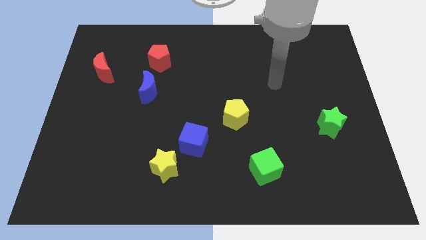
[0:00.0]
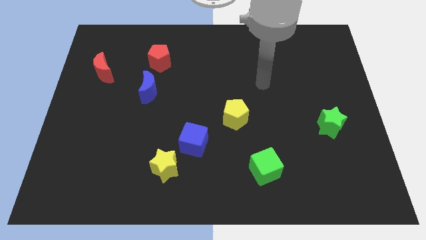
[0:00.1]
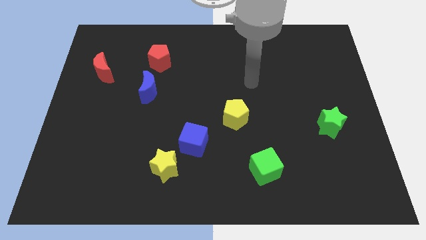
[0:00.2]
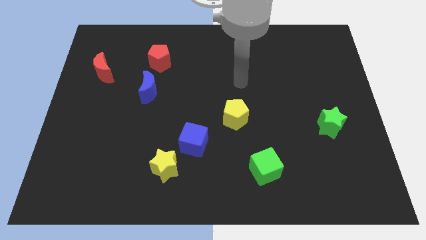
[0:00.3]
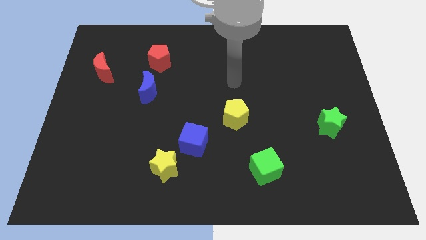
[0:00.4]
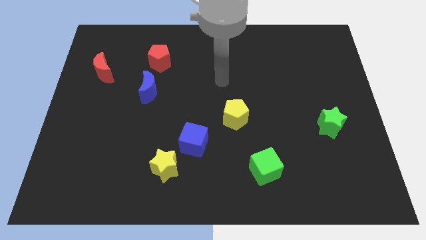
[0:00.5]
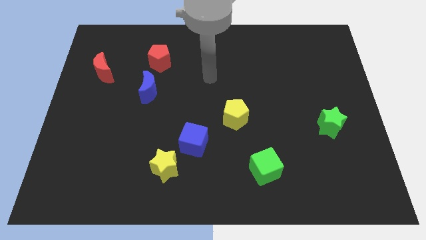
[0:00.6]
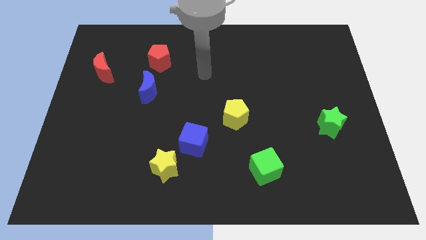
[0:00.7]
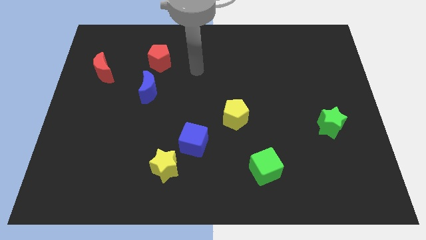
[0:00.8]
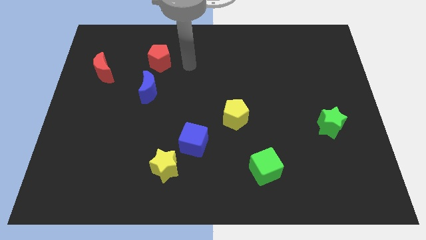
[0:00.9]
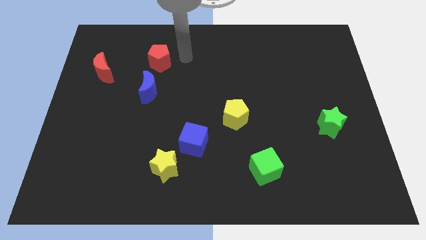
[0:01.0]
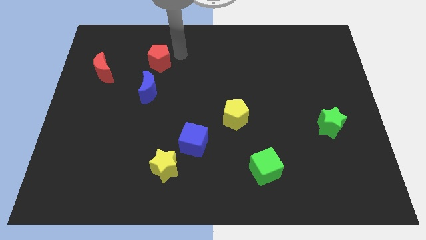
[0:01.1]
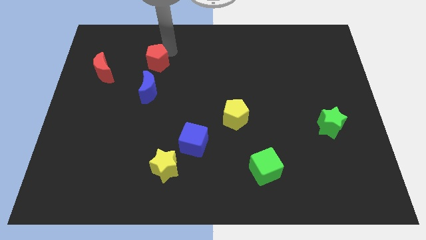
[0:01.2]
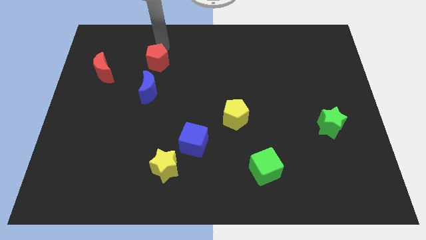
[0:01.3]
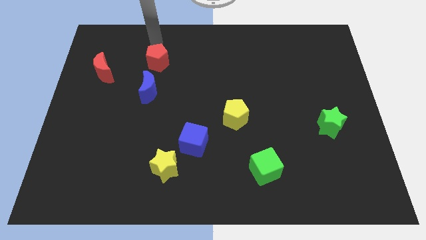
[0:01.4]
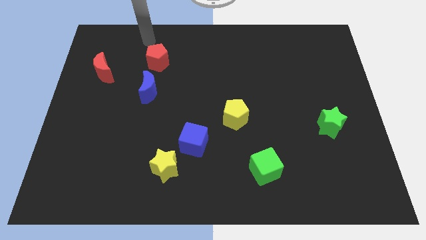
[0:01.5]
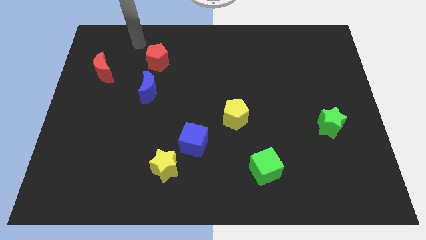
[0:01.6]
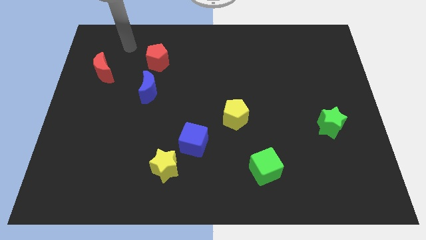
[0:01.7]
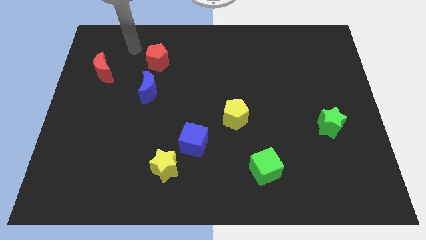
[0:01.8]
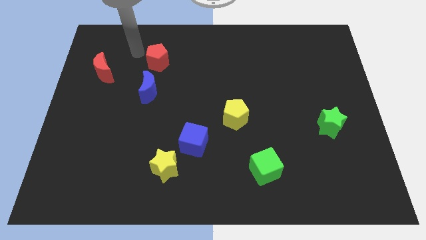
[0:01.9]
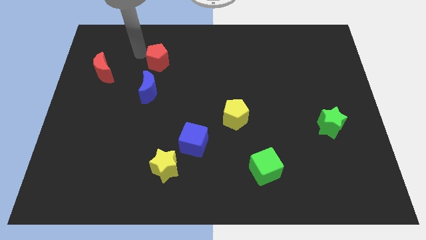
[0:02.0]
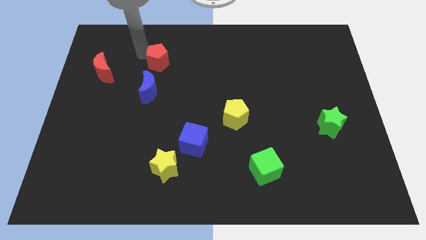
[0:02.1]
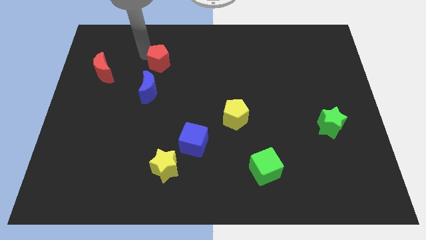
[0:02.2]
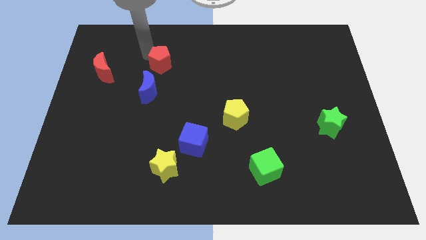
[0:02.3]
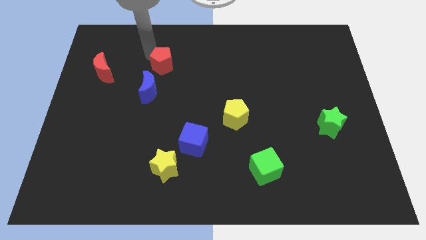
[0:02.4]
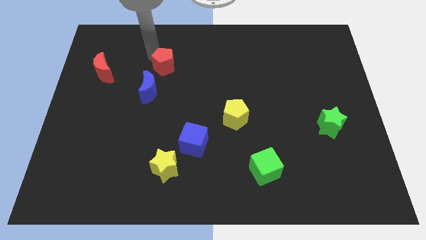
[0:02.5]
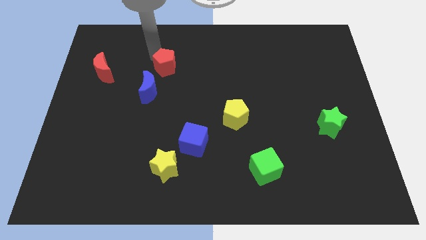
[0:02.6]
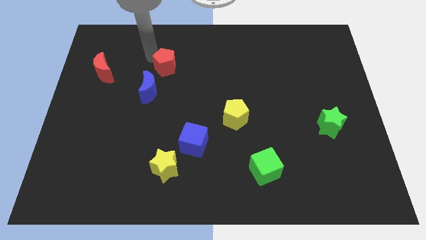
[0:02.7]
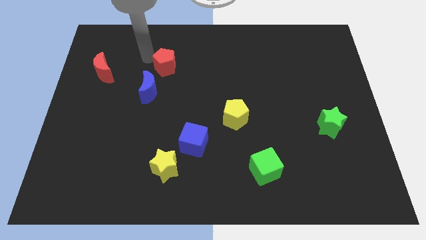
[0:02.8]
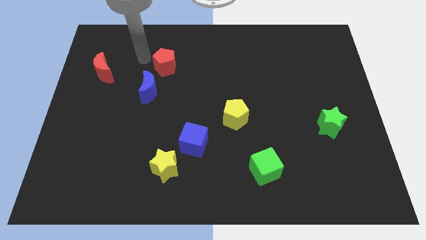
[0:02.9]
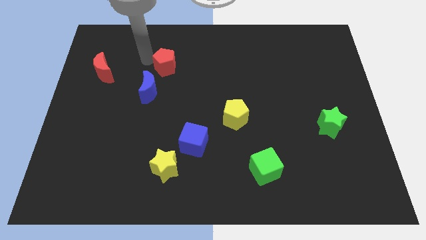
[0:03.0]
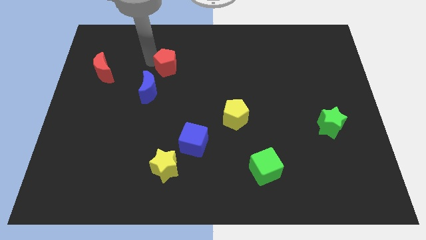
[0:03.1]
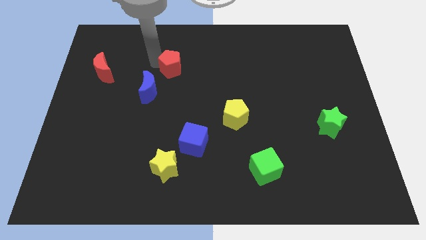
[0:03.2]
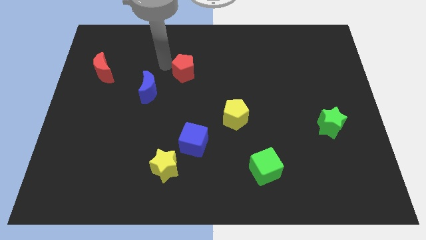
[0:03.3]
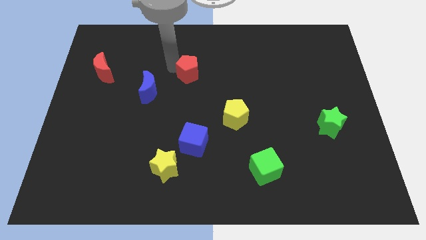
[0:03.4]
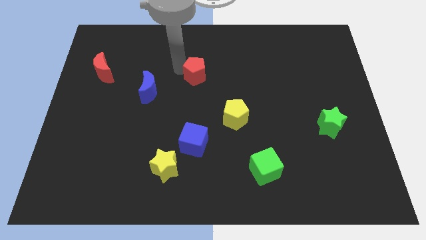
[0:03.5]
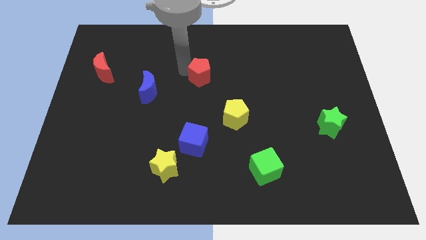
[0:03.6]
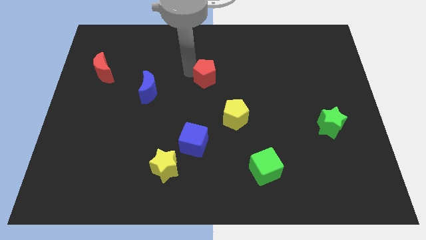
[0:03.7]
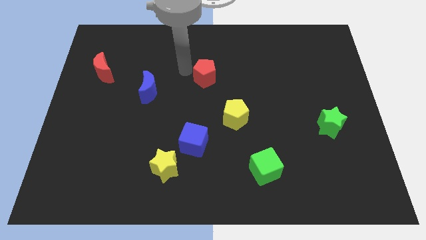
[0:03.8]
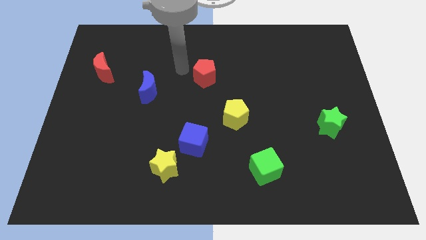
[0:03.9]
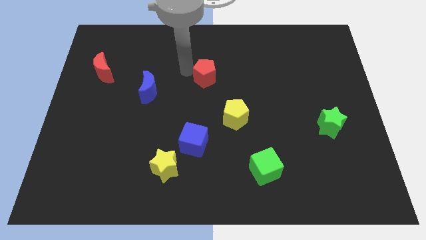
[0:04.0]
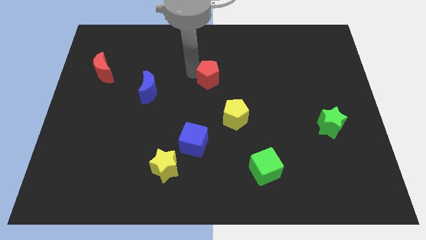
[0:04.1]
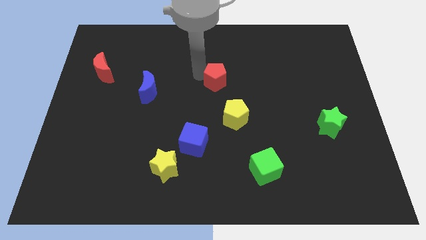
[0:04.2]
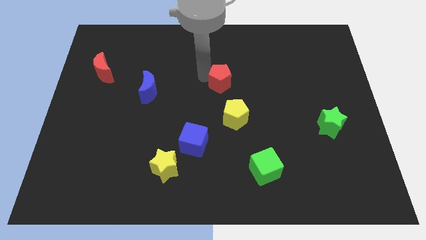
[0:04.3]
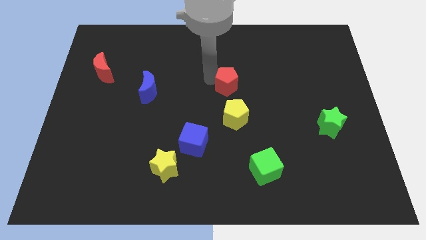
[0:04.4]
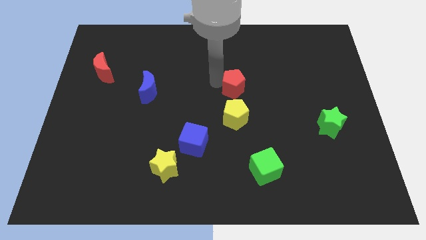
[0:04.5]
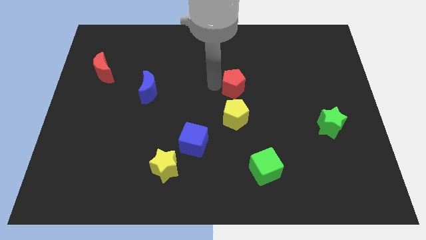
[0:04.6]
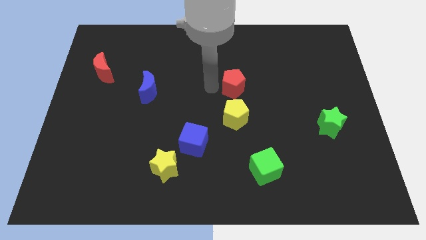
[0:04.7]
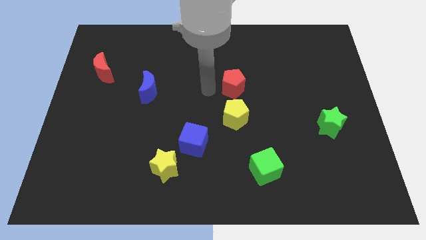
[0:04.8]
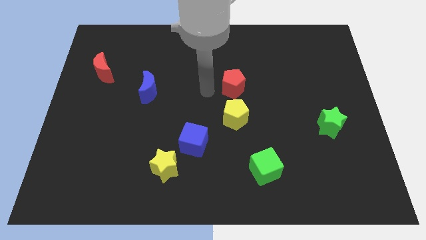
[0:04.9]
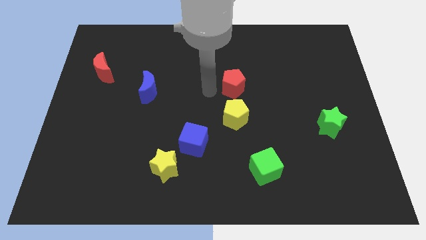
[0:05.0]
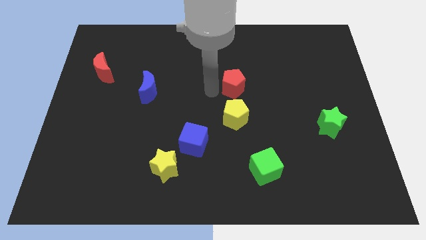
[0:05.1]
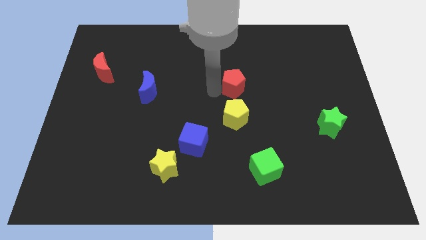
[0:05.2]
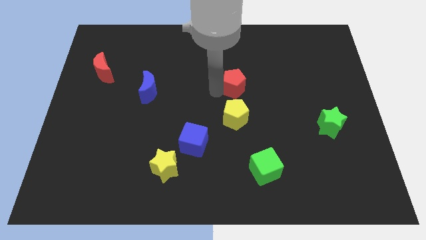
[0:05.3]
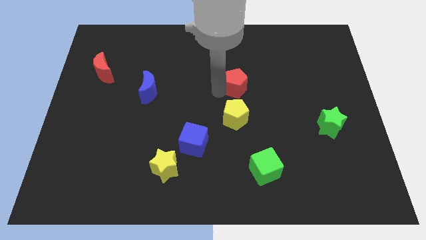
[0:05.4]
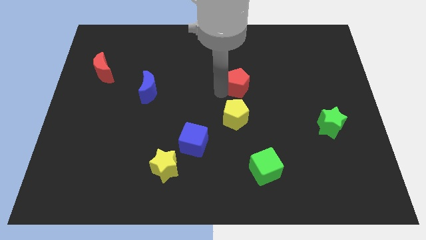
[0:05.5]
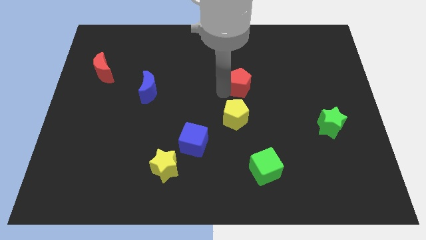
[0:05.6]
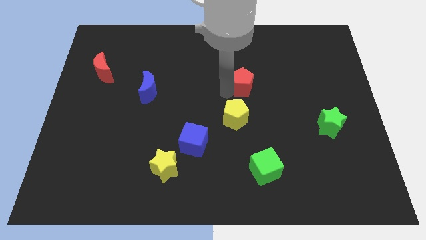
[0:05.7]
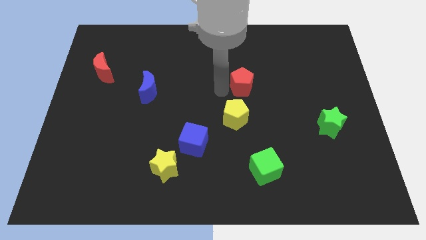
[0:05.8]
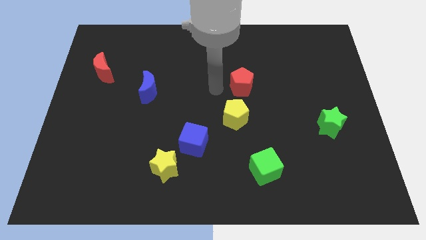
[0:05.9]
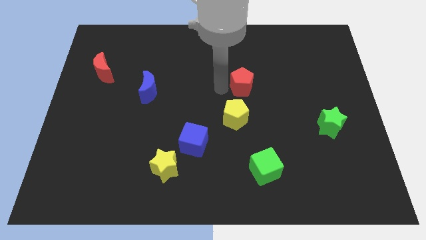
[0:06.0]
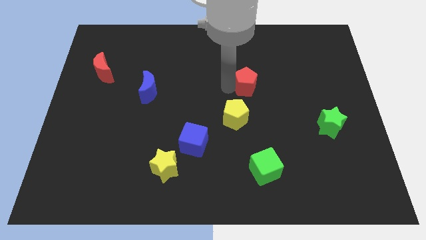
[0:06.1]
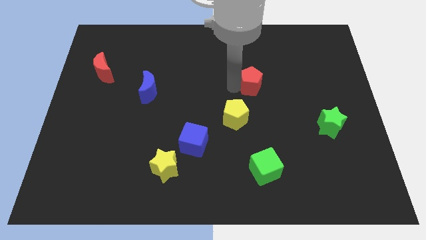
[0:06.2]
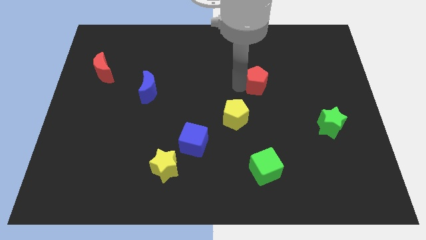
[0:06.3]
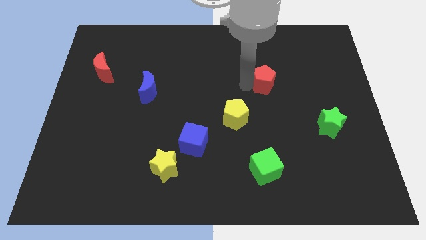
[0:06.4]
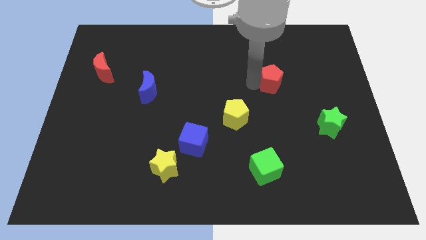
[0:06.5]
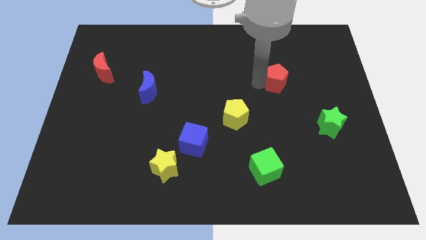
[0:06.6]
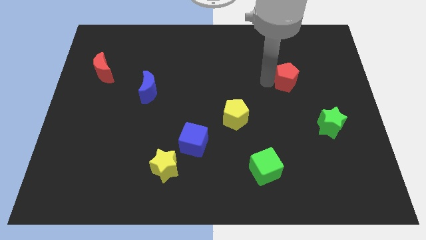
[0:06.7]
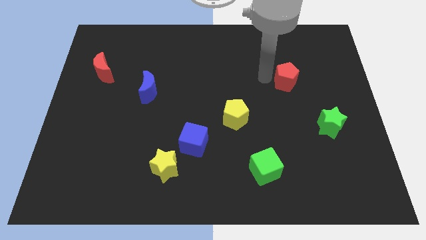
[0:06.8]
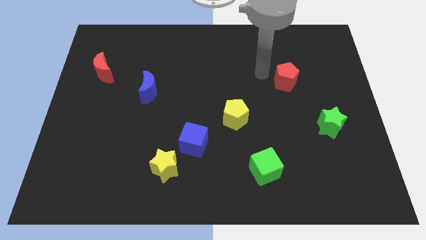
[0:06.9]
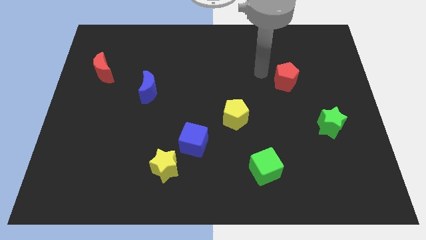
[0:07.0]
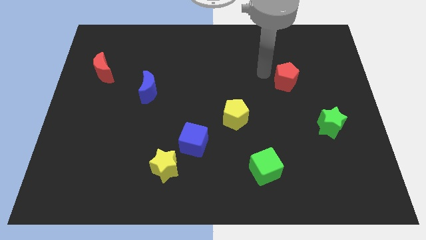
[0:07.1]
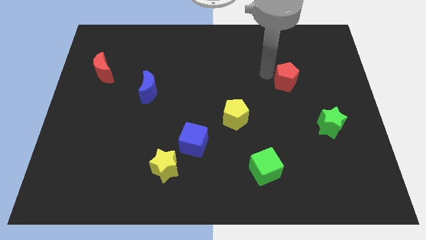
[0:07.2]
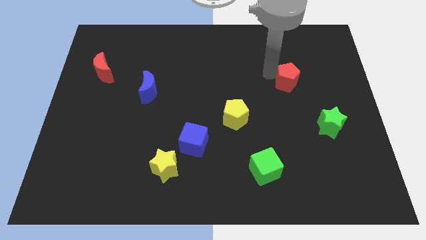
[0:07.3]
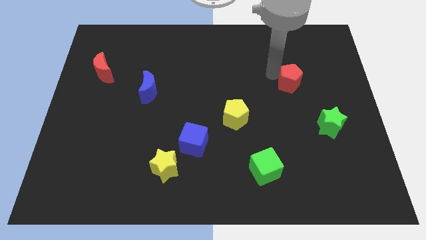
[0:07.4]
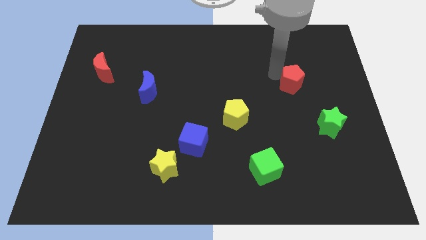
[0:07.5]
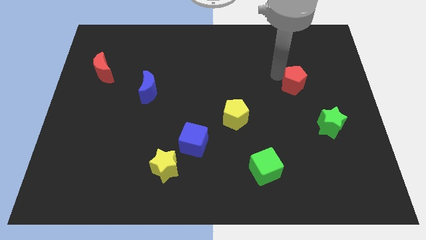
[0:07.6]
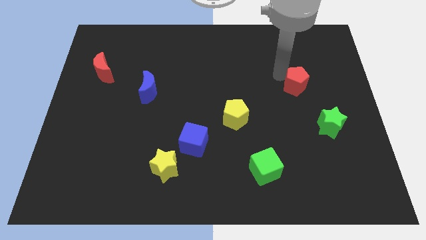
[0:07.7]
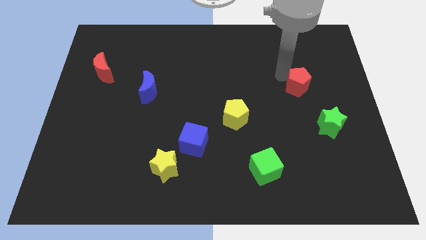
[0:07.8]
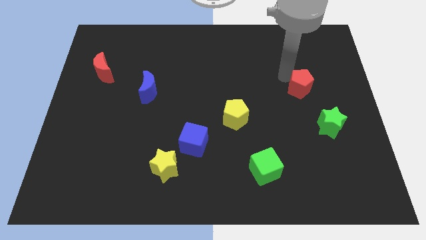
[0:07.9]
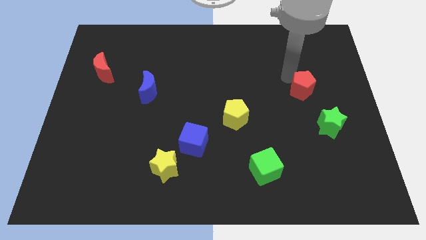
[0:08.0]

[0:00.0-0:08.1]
slide the red pentagon above the green star
